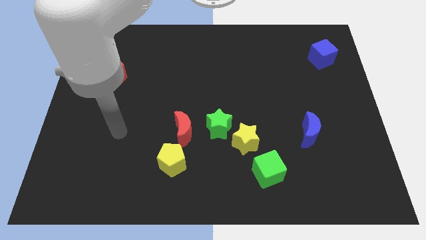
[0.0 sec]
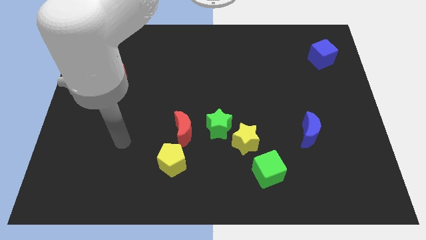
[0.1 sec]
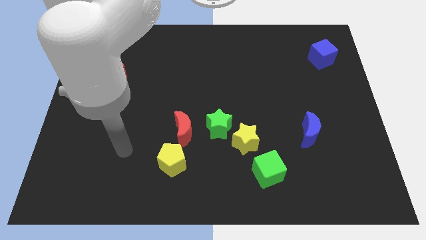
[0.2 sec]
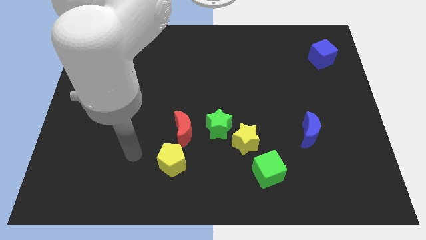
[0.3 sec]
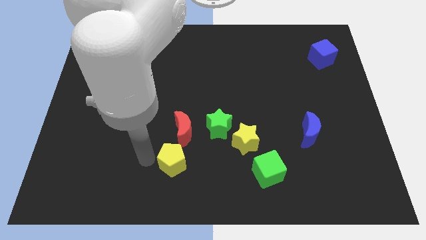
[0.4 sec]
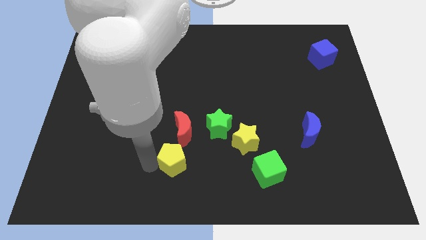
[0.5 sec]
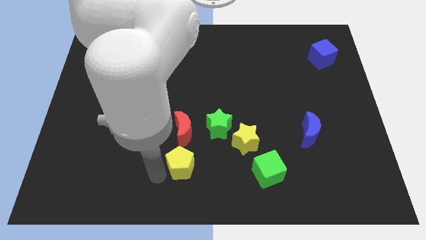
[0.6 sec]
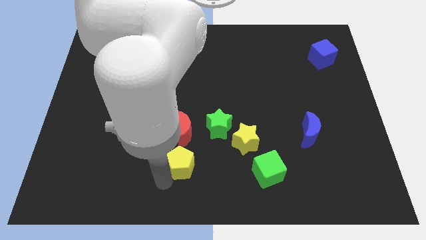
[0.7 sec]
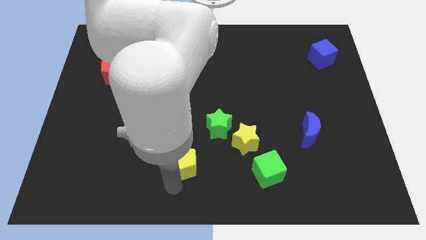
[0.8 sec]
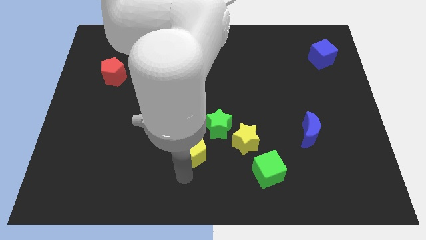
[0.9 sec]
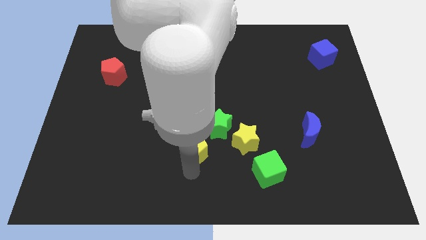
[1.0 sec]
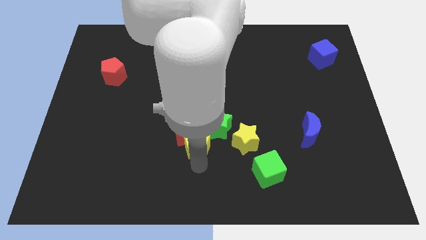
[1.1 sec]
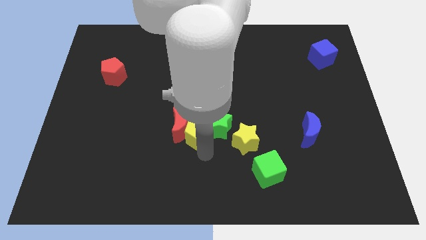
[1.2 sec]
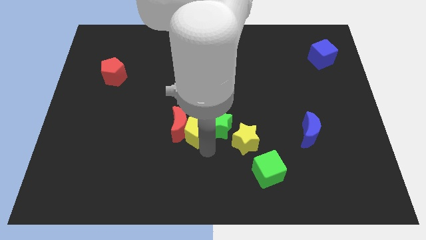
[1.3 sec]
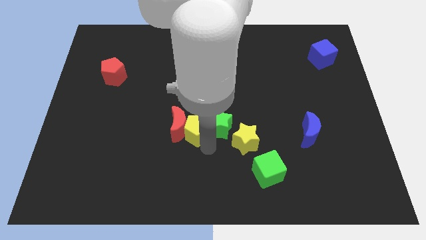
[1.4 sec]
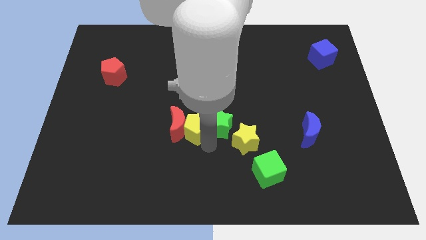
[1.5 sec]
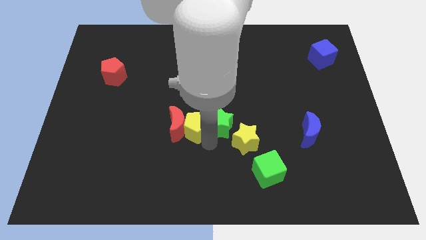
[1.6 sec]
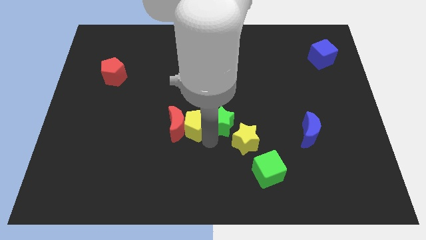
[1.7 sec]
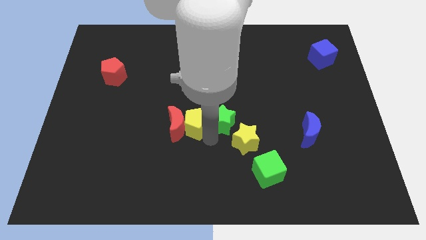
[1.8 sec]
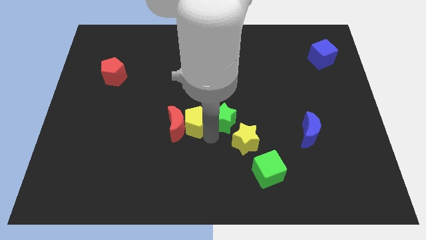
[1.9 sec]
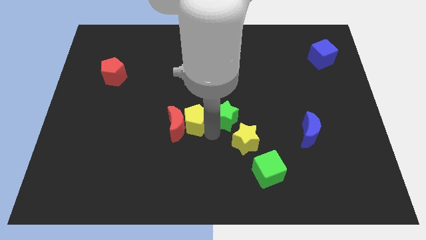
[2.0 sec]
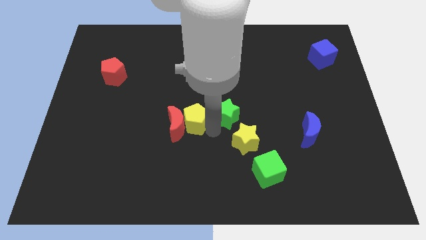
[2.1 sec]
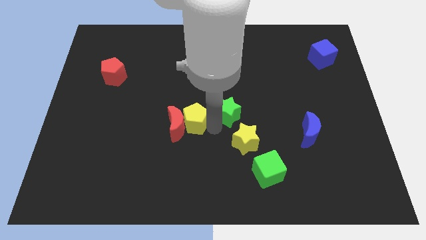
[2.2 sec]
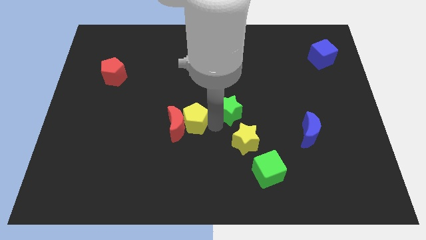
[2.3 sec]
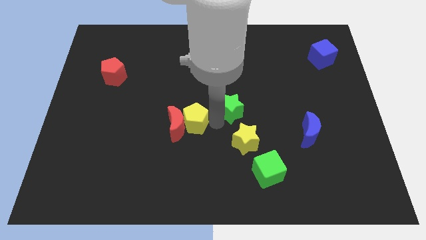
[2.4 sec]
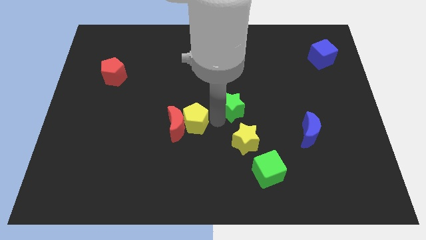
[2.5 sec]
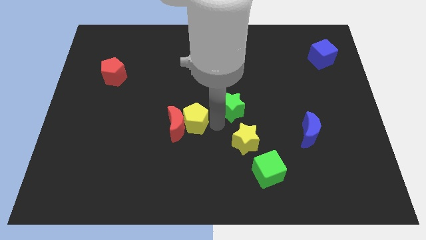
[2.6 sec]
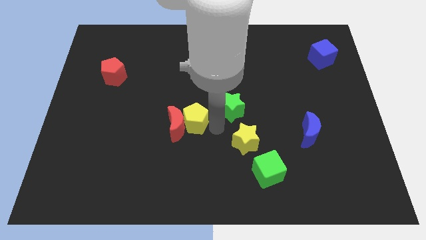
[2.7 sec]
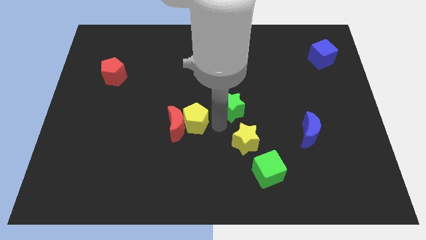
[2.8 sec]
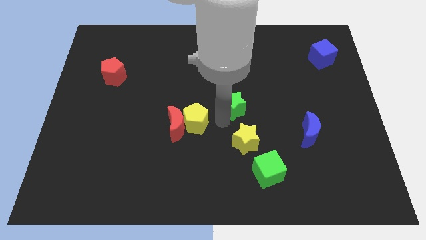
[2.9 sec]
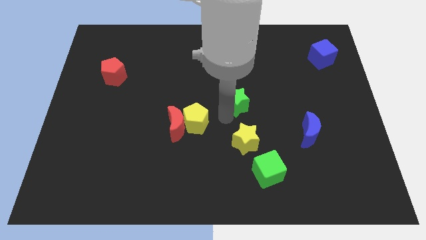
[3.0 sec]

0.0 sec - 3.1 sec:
separate the green star from the yellow star and red moon

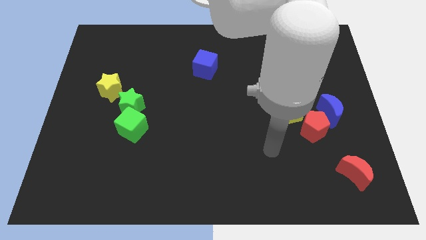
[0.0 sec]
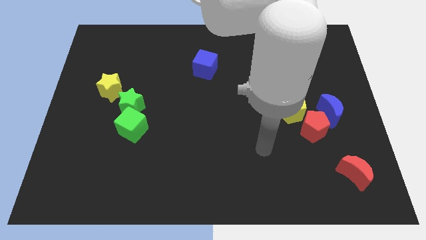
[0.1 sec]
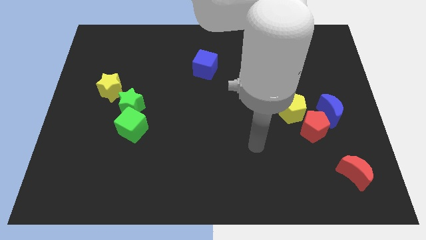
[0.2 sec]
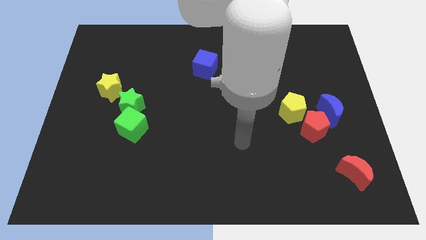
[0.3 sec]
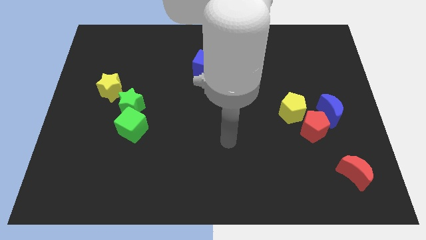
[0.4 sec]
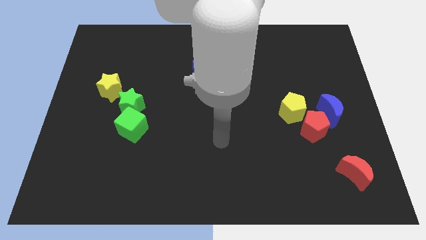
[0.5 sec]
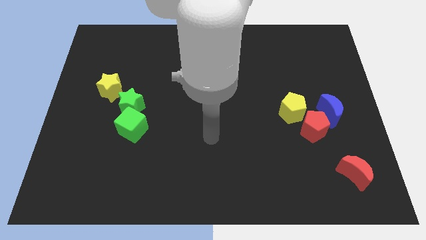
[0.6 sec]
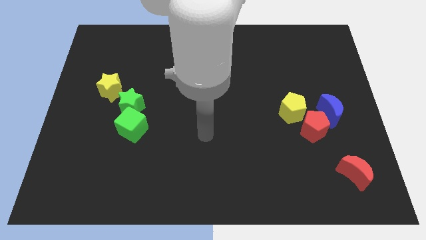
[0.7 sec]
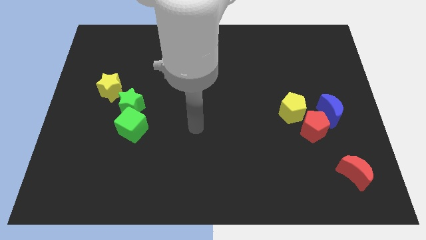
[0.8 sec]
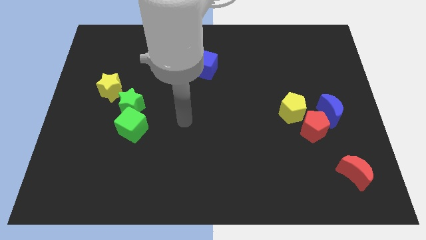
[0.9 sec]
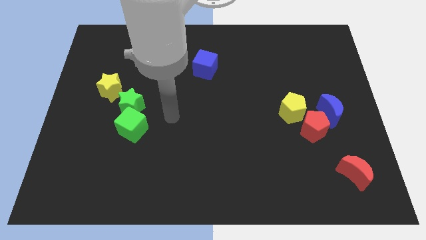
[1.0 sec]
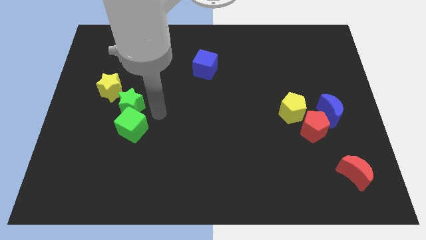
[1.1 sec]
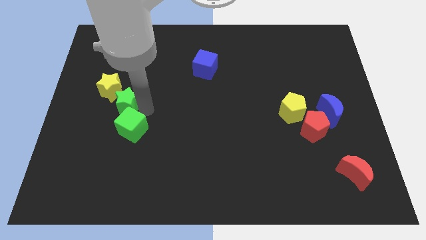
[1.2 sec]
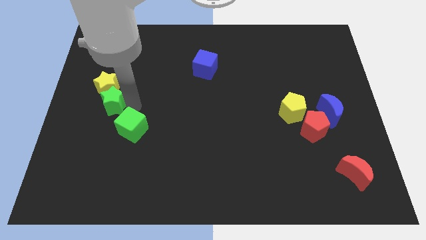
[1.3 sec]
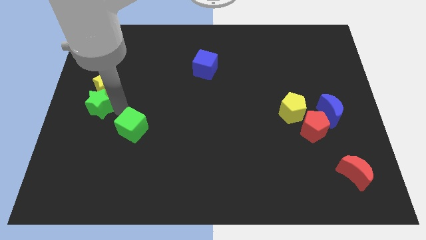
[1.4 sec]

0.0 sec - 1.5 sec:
pull the green cube apart from the green star

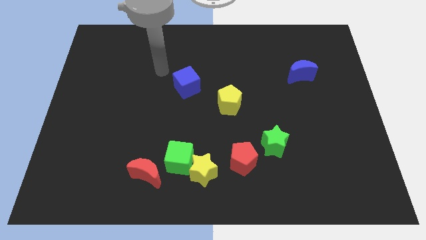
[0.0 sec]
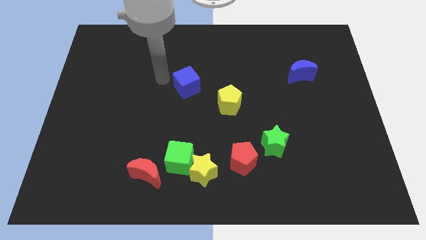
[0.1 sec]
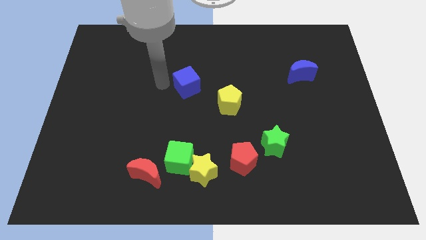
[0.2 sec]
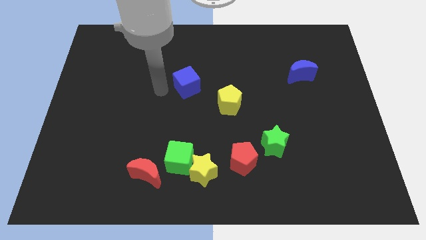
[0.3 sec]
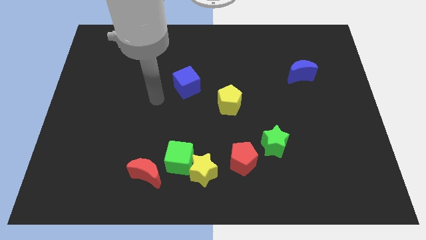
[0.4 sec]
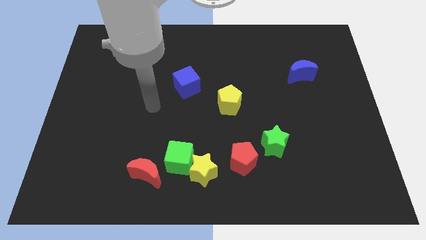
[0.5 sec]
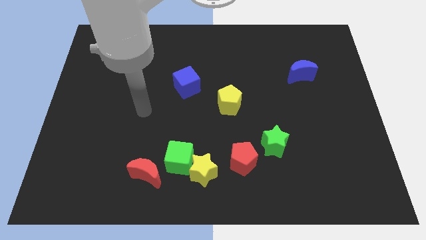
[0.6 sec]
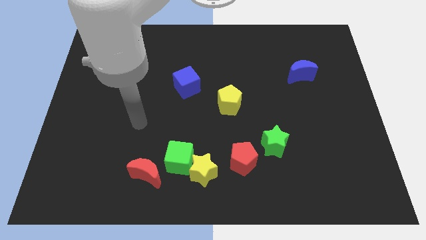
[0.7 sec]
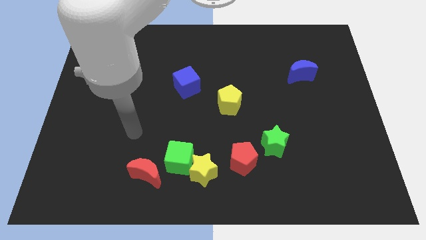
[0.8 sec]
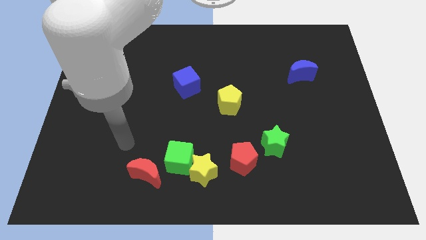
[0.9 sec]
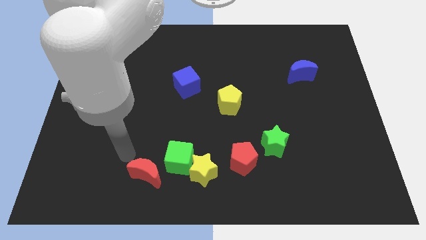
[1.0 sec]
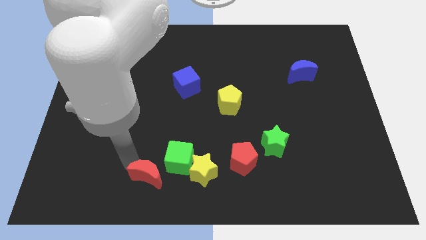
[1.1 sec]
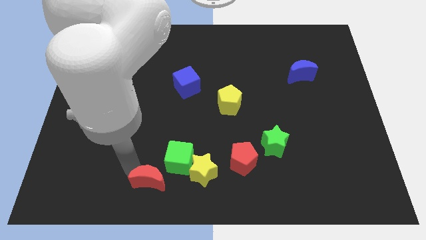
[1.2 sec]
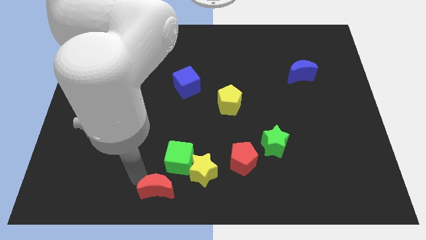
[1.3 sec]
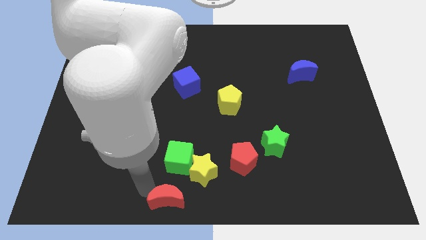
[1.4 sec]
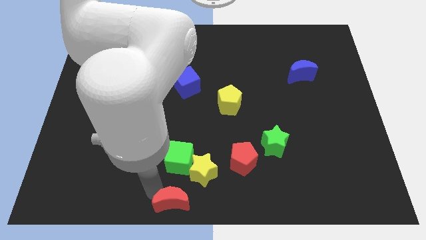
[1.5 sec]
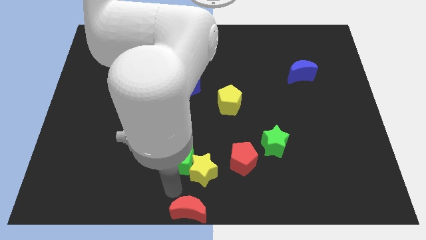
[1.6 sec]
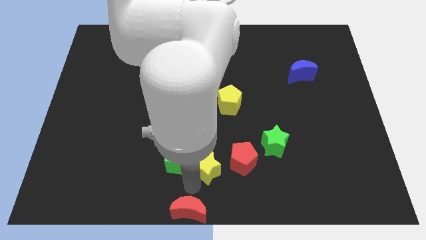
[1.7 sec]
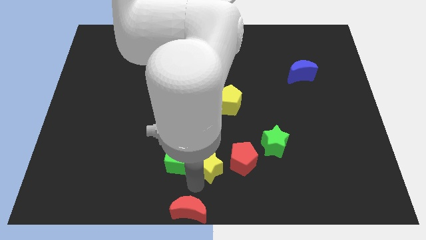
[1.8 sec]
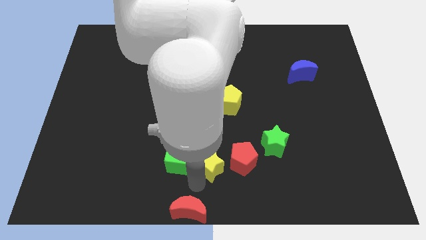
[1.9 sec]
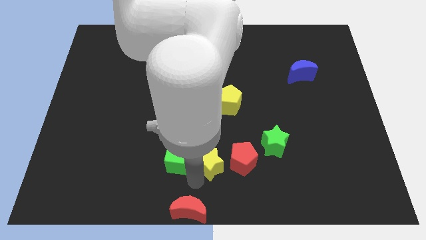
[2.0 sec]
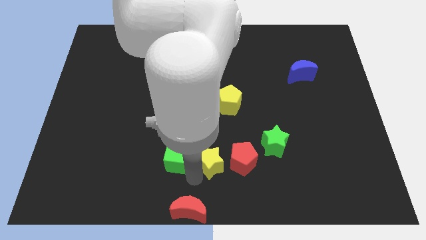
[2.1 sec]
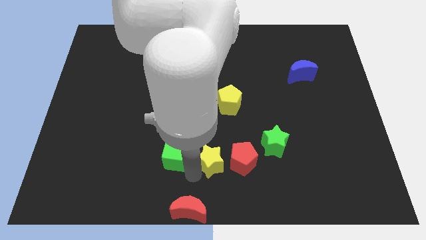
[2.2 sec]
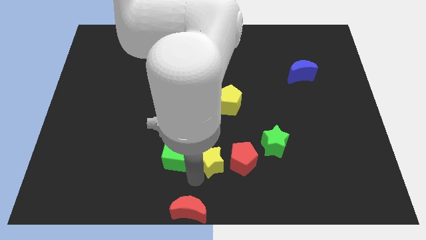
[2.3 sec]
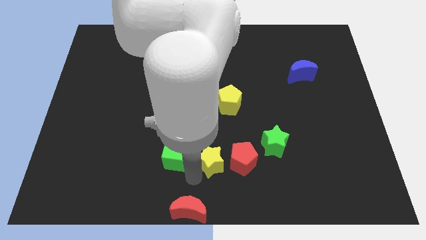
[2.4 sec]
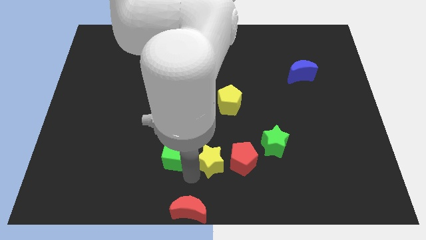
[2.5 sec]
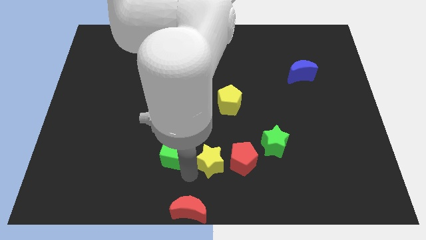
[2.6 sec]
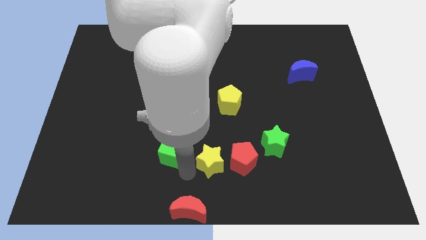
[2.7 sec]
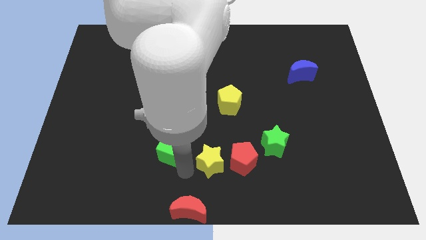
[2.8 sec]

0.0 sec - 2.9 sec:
separate the green cube from the yellow star and red moon

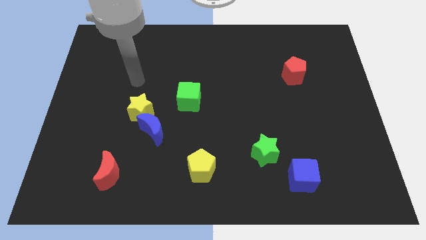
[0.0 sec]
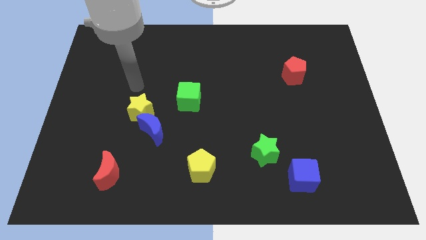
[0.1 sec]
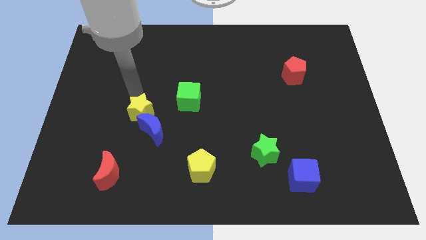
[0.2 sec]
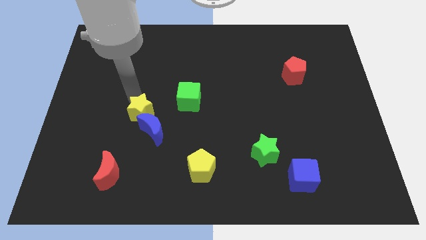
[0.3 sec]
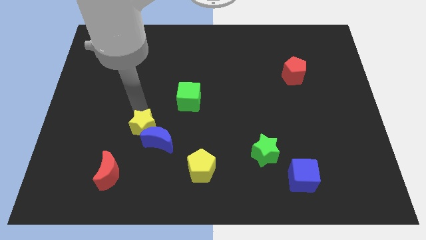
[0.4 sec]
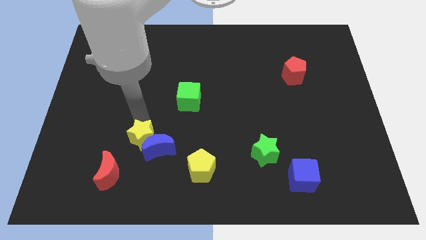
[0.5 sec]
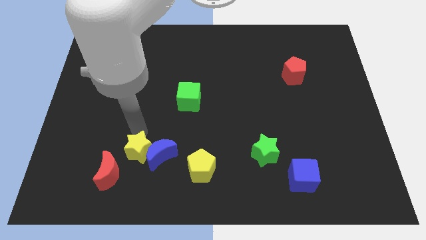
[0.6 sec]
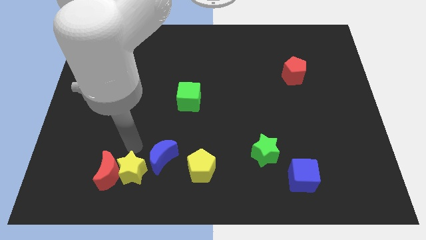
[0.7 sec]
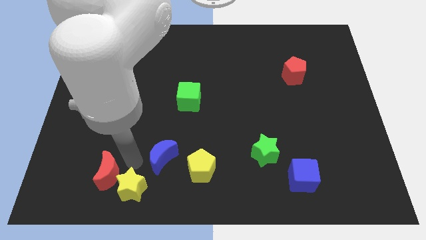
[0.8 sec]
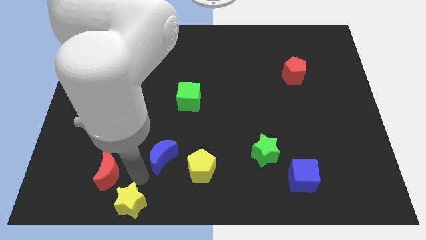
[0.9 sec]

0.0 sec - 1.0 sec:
pull the blue moon apart from the yellow star

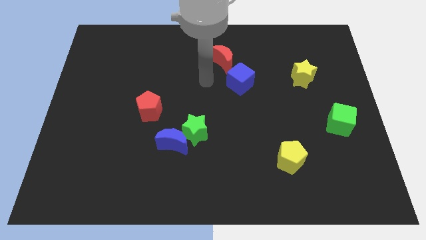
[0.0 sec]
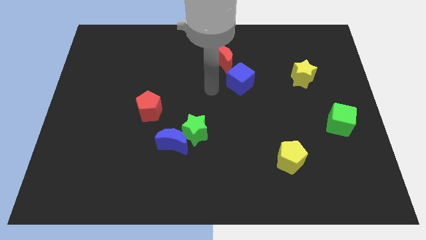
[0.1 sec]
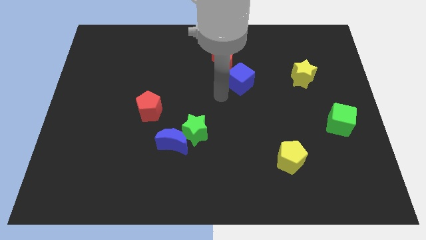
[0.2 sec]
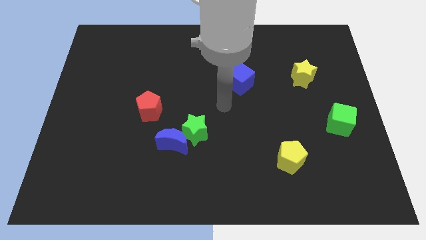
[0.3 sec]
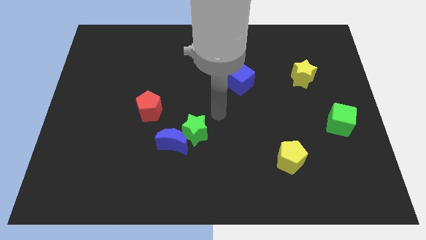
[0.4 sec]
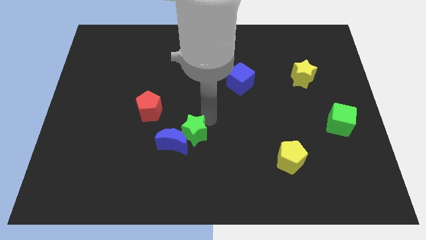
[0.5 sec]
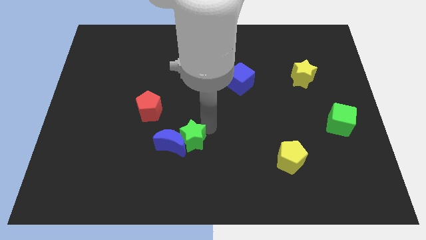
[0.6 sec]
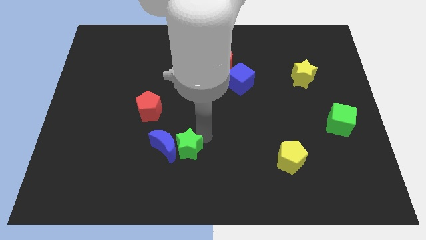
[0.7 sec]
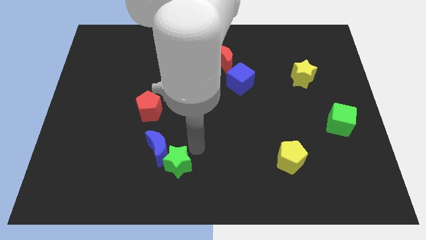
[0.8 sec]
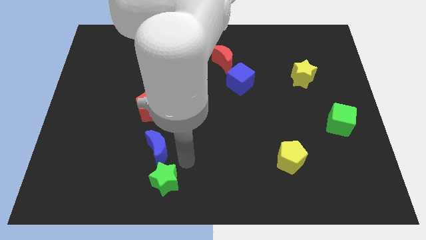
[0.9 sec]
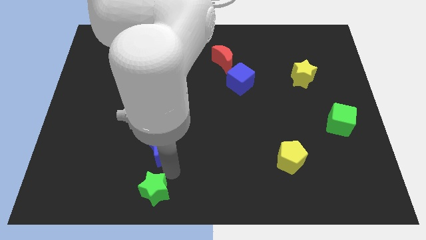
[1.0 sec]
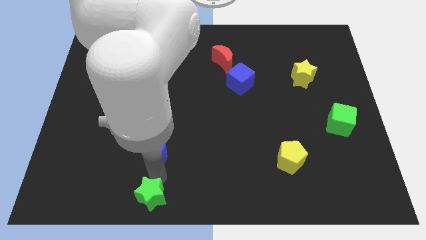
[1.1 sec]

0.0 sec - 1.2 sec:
separate the blue moon from the green star
